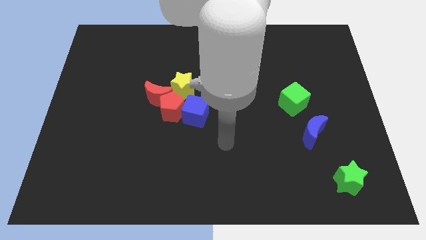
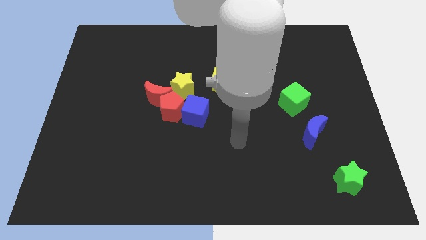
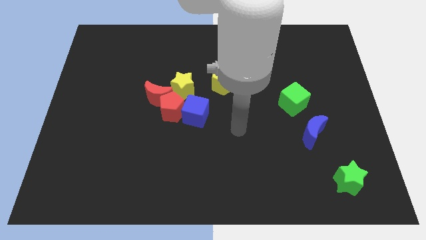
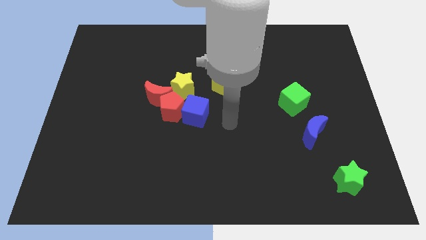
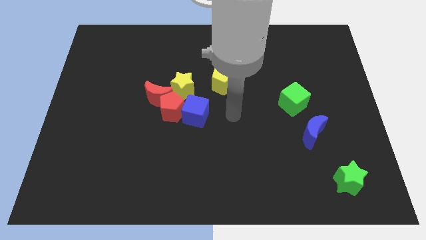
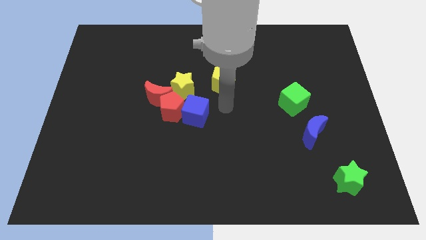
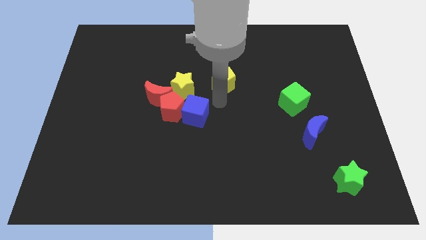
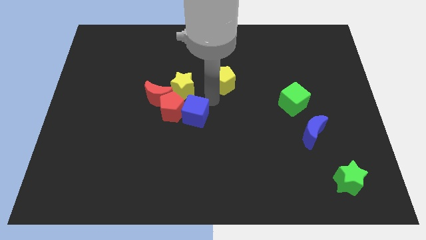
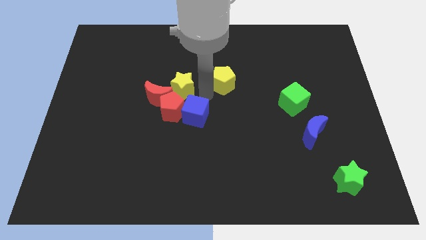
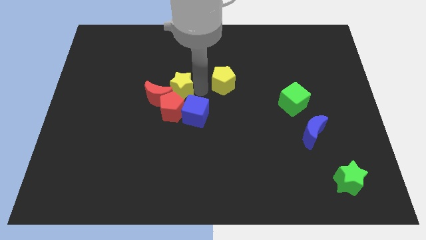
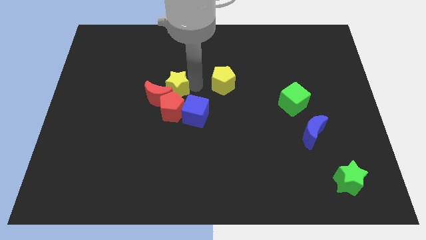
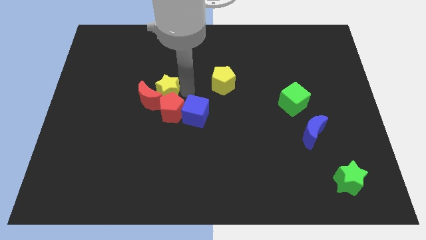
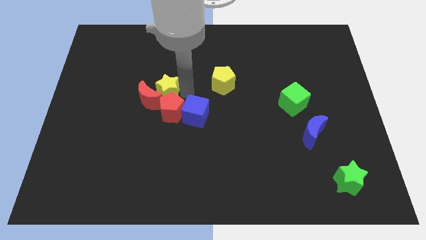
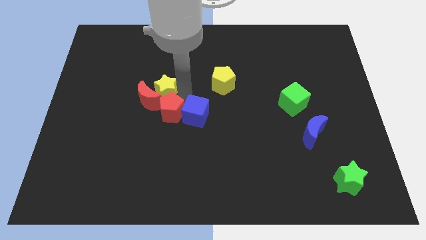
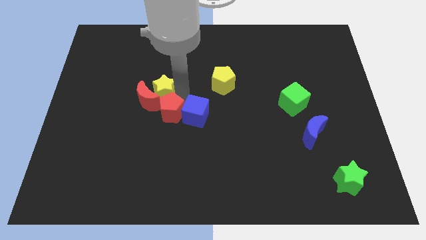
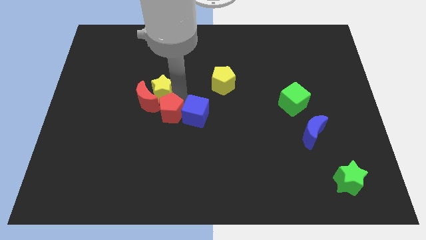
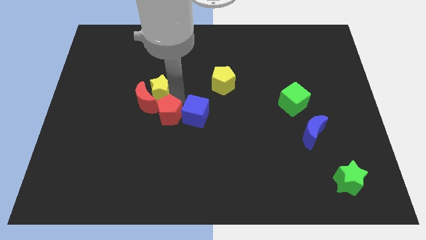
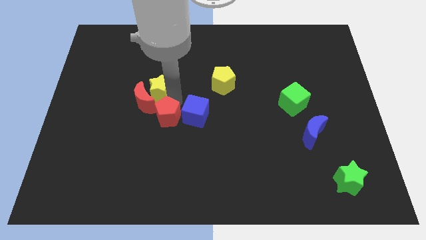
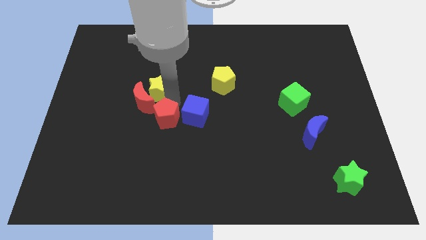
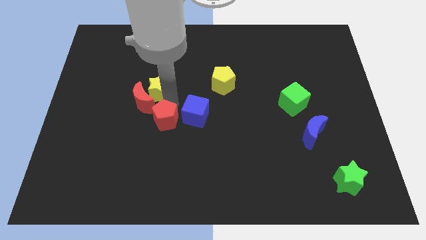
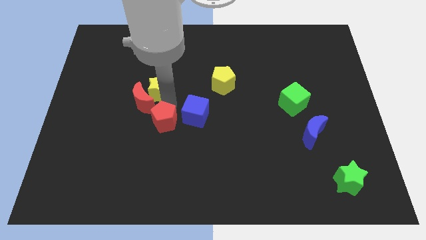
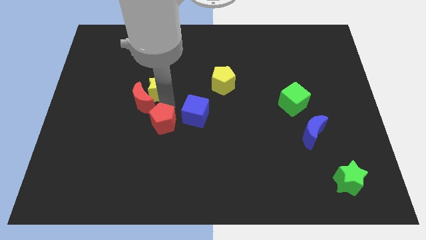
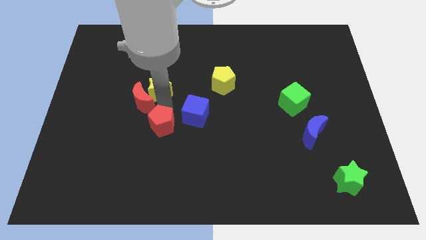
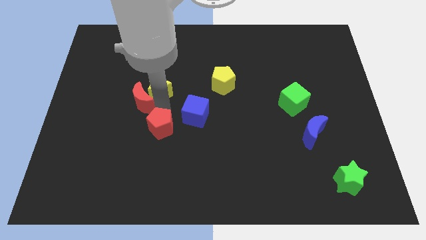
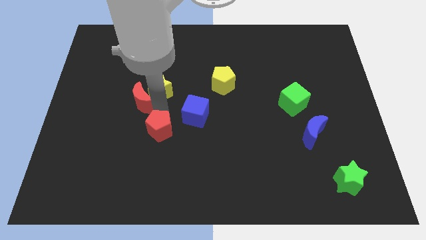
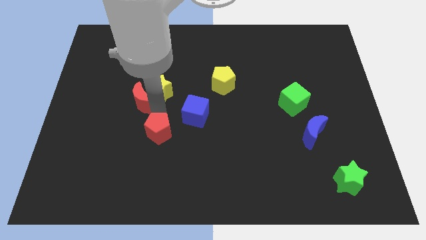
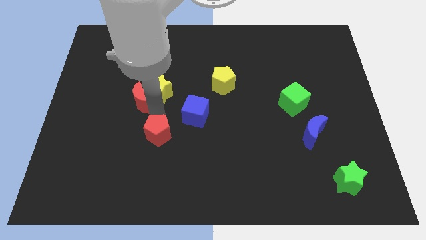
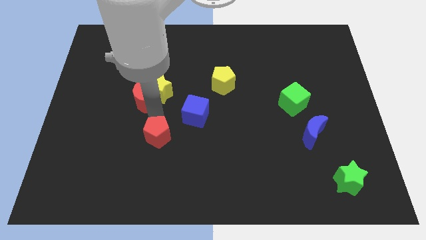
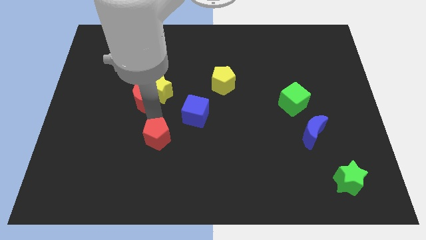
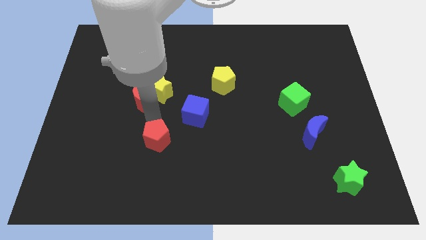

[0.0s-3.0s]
separate the red pentagon from the group

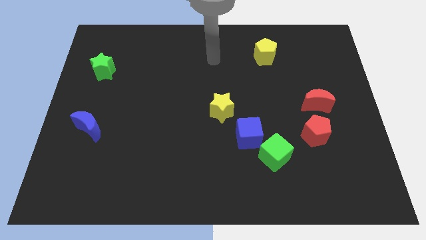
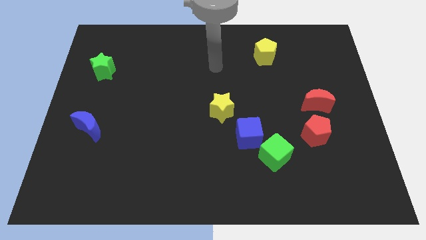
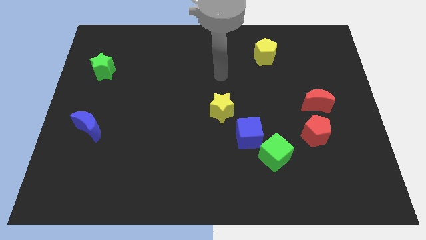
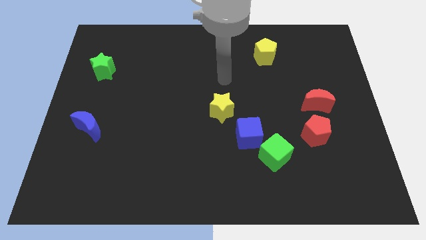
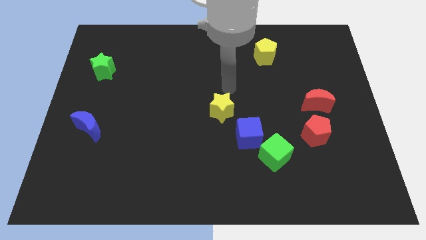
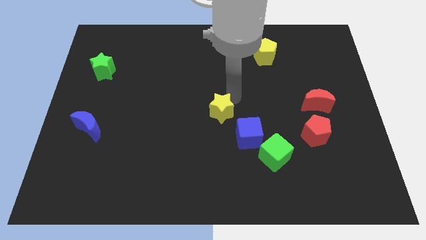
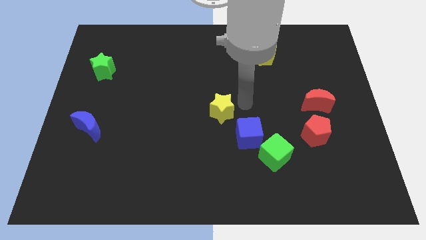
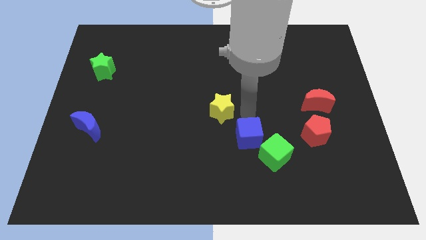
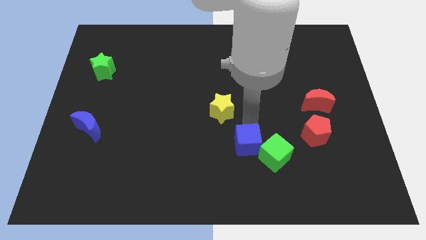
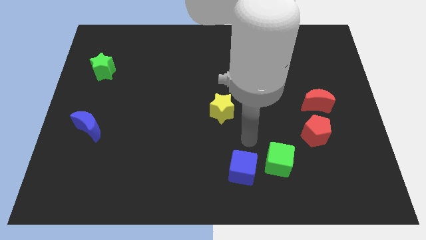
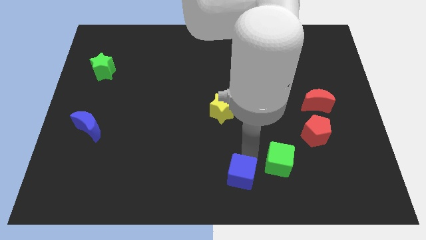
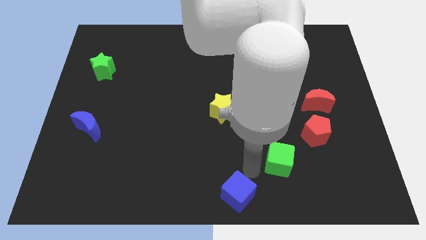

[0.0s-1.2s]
pull the green cube apart from the blue cube

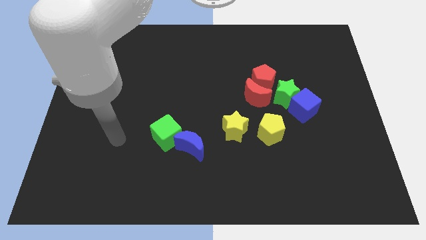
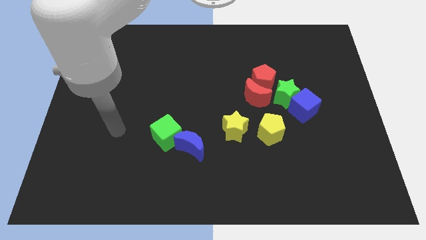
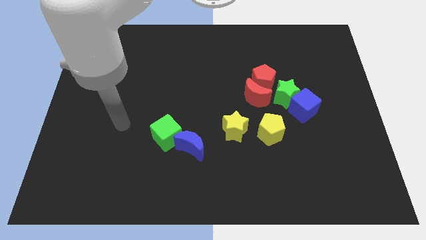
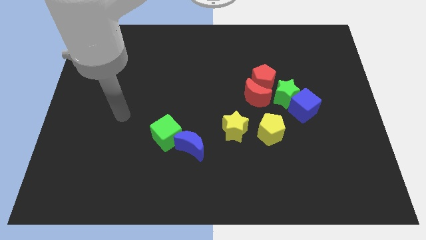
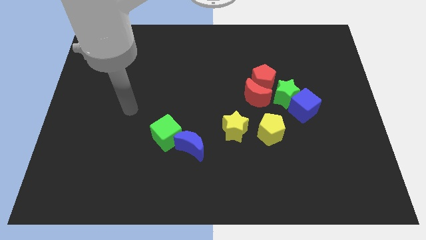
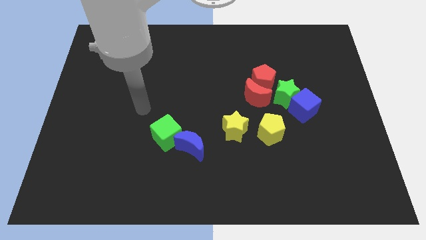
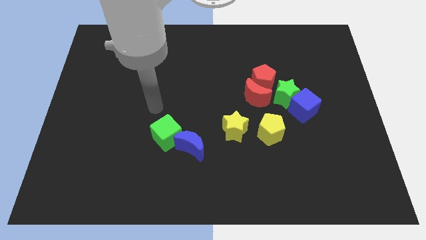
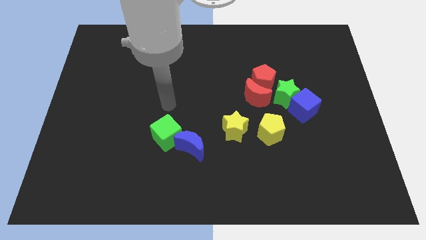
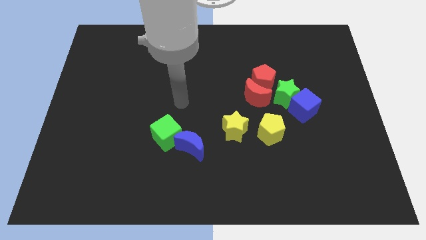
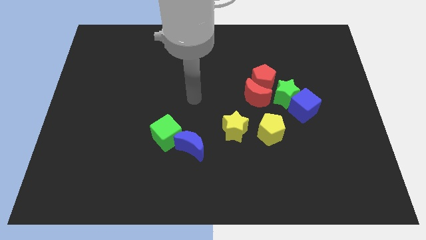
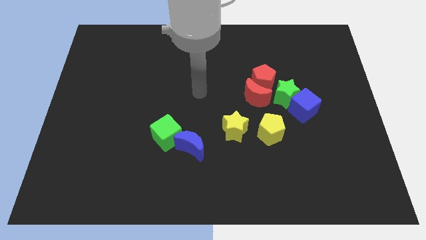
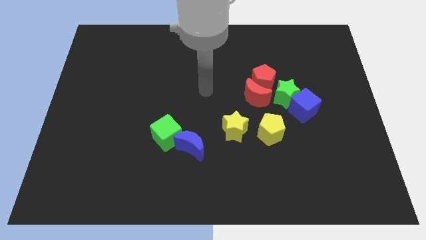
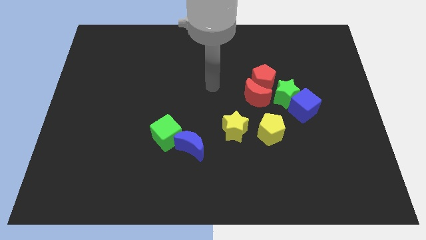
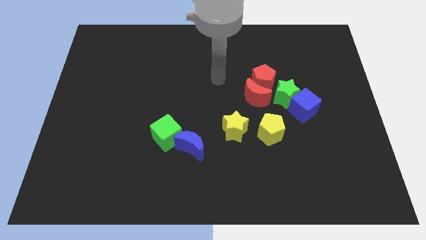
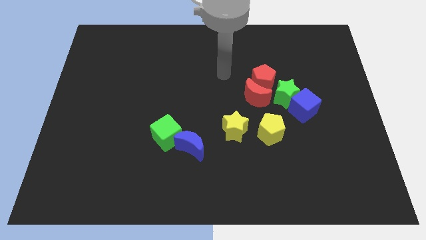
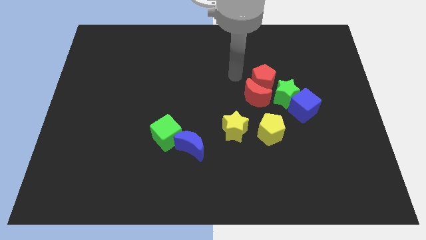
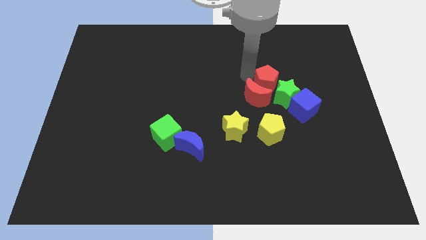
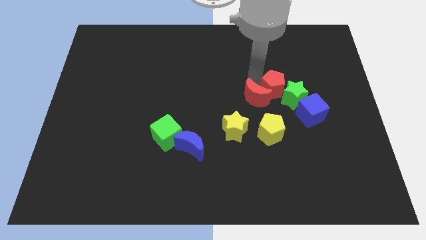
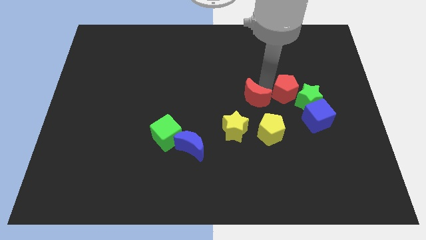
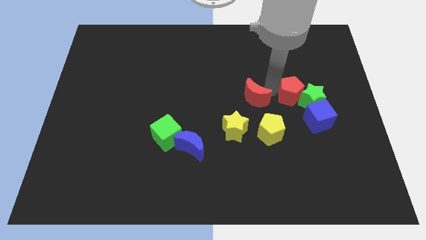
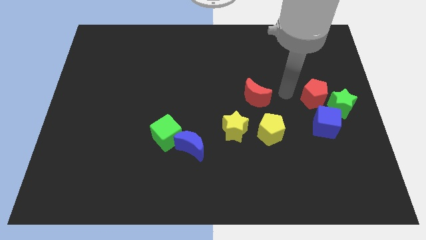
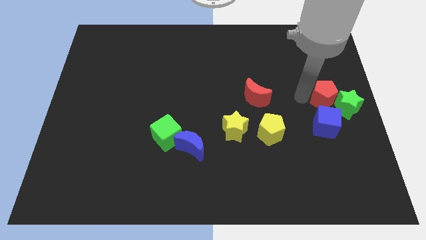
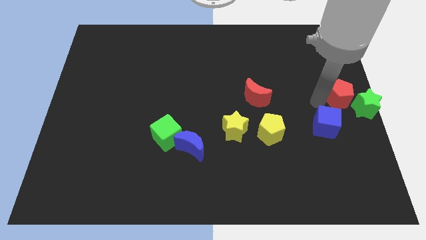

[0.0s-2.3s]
move the blue cube away from the green star

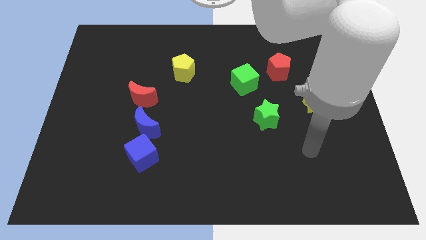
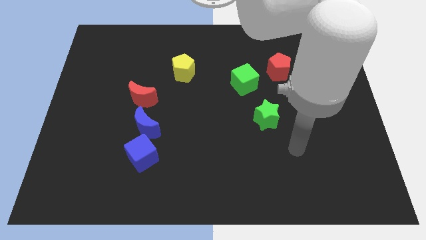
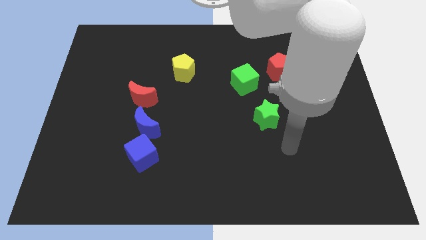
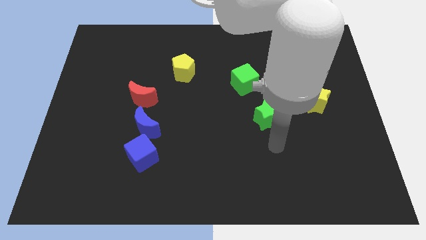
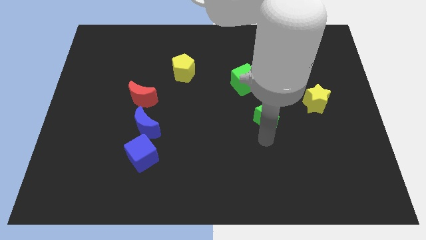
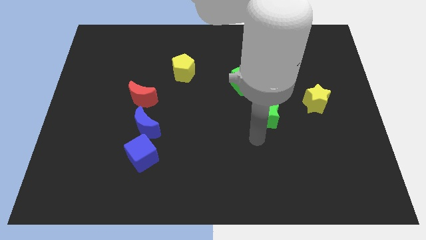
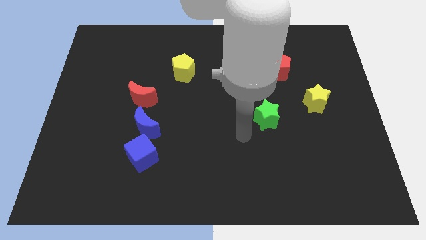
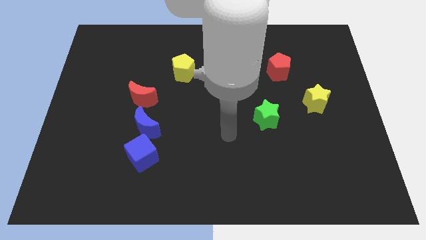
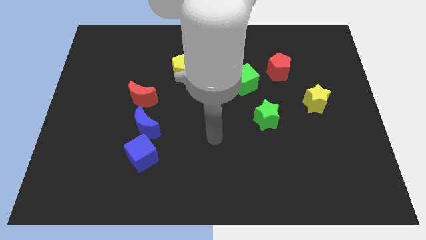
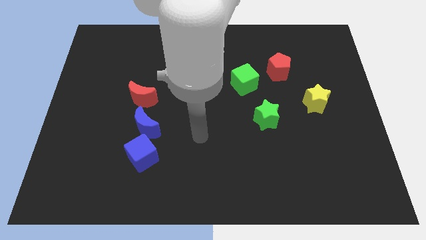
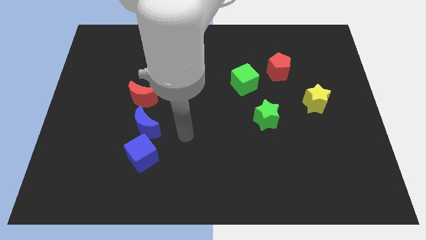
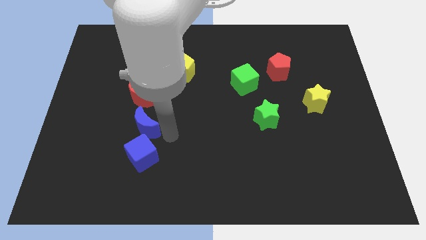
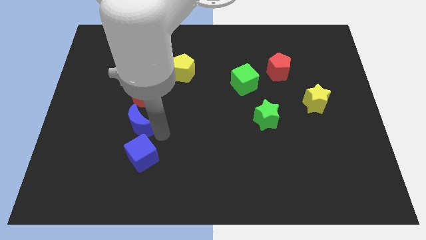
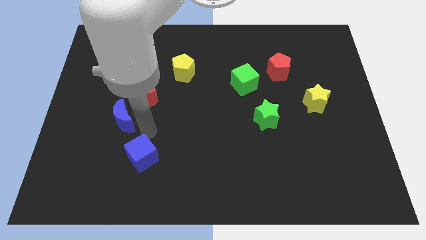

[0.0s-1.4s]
move the blue cube away from the blue moon

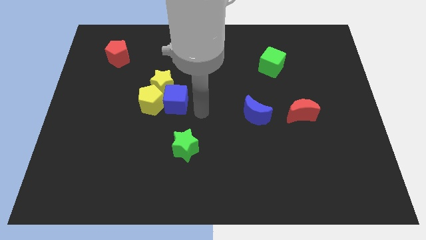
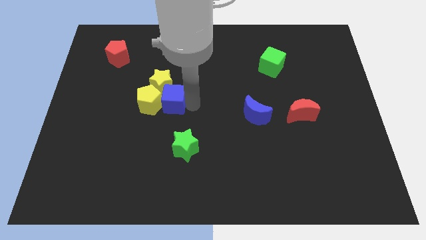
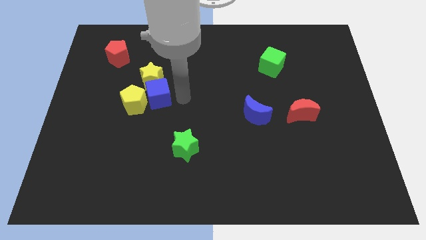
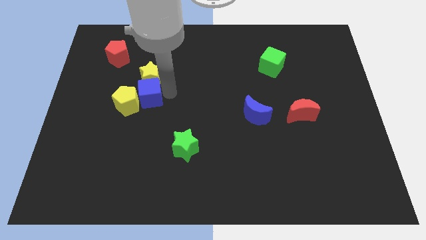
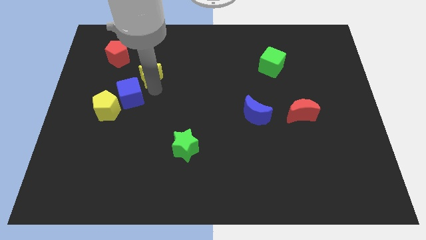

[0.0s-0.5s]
separate the yellow pentagon from the yellow star and blue cube

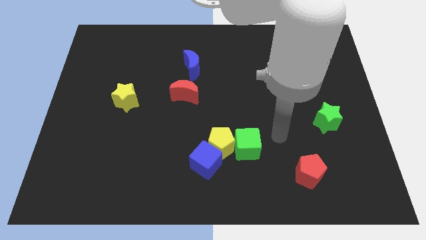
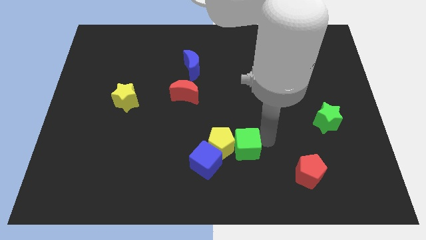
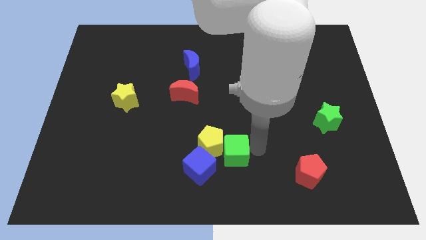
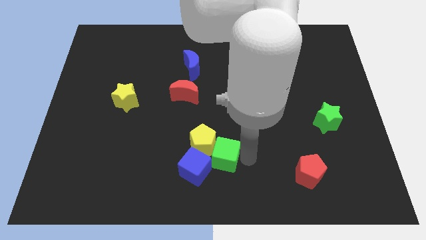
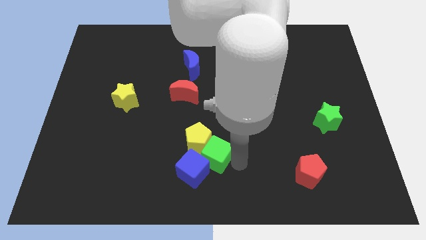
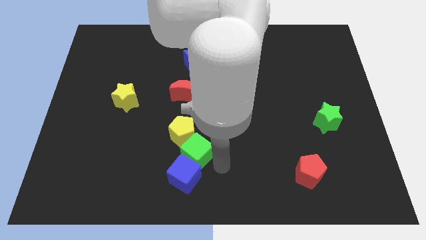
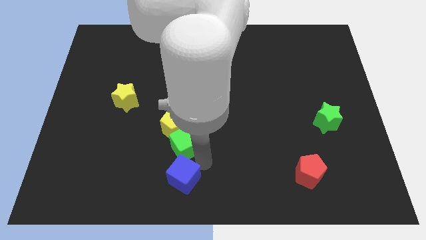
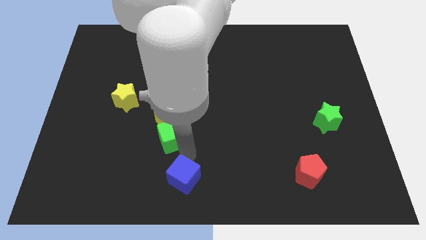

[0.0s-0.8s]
separate the yellow pentagon from the blue cube and green cube
